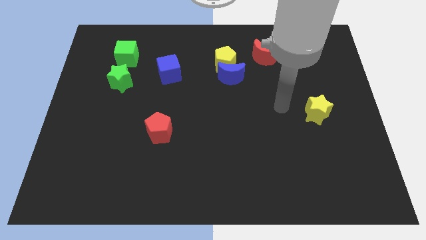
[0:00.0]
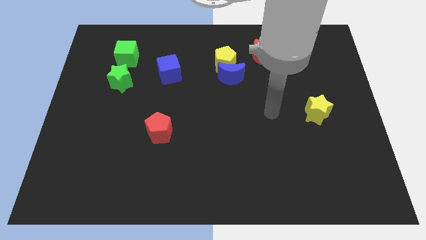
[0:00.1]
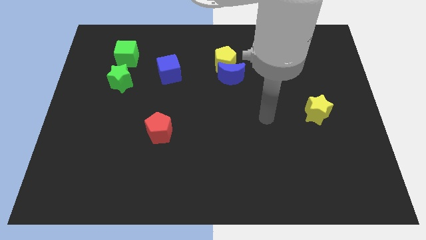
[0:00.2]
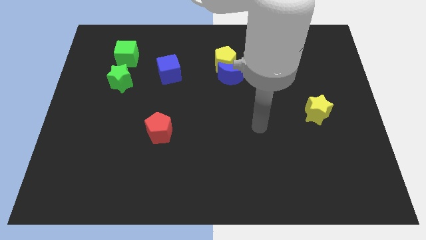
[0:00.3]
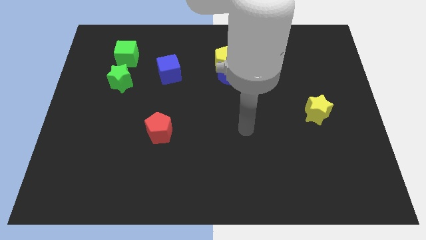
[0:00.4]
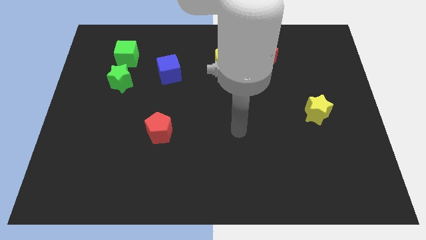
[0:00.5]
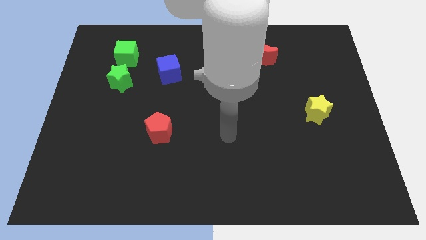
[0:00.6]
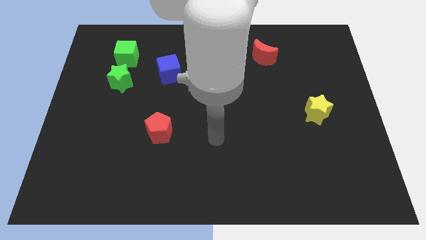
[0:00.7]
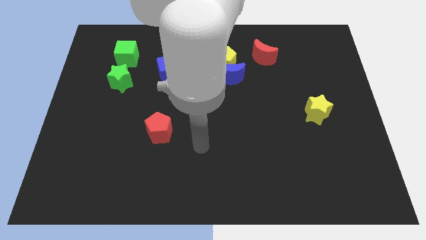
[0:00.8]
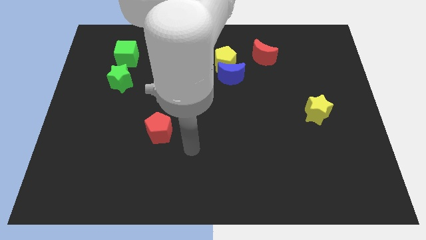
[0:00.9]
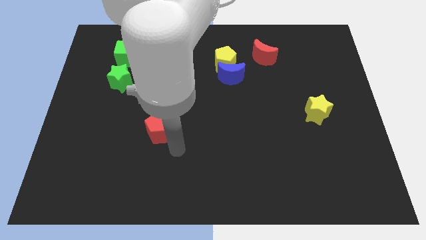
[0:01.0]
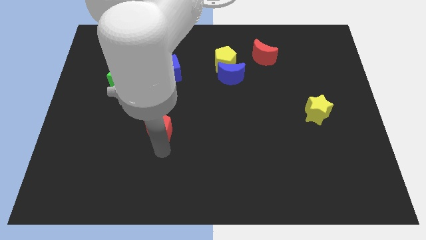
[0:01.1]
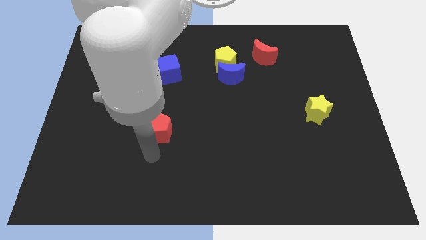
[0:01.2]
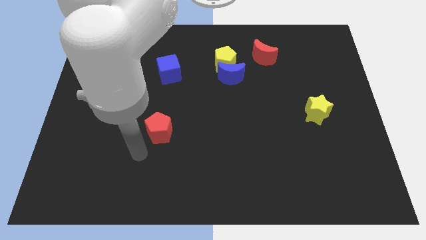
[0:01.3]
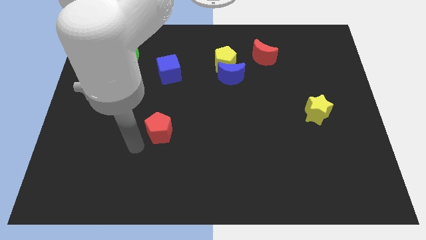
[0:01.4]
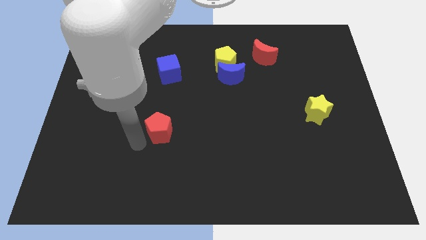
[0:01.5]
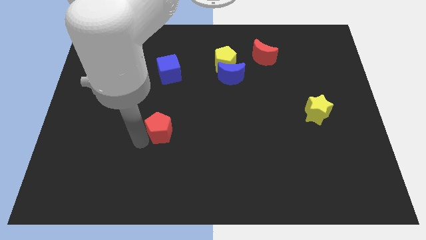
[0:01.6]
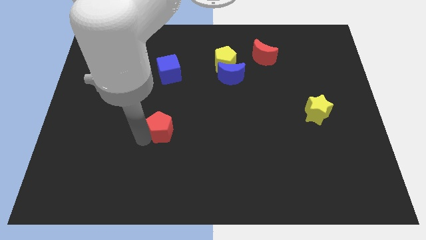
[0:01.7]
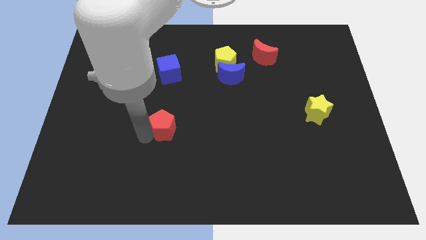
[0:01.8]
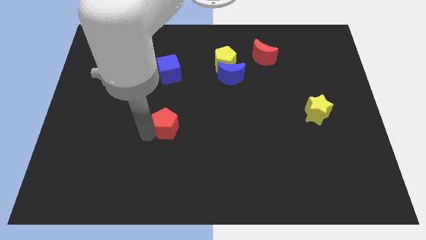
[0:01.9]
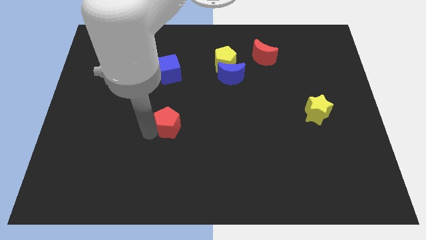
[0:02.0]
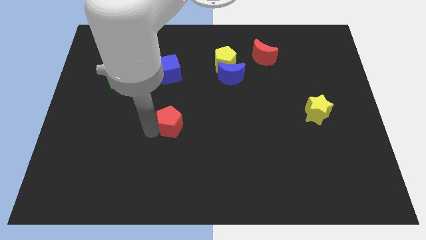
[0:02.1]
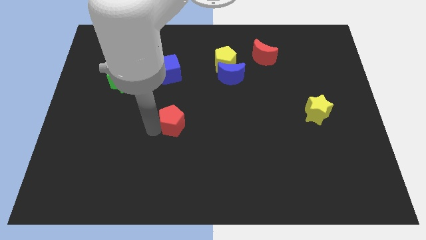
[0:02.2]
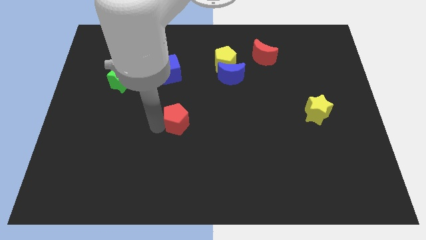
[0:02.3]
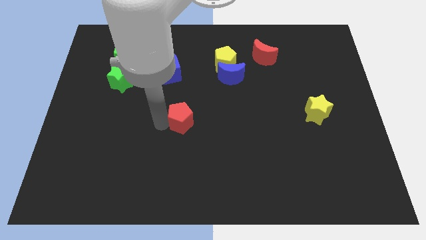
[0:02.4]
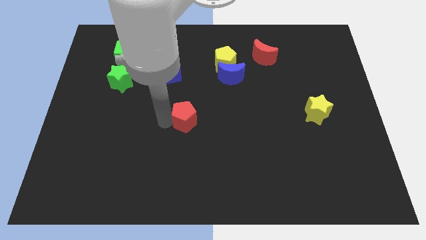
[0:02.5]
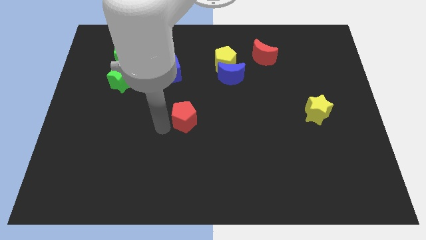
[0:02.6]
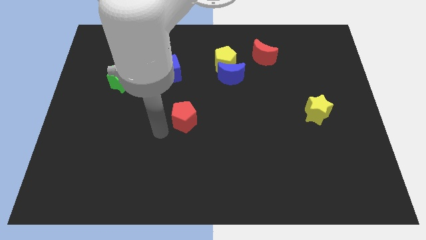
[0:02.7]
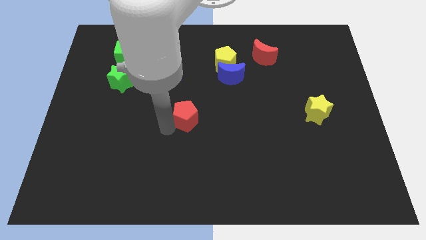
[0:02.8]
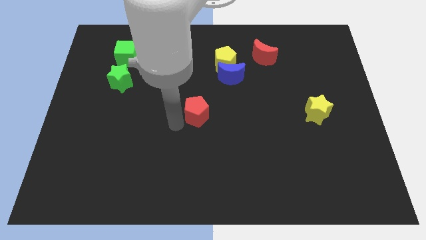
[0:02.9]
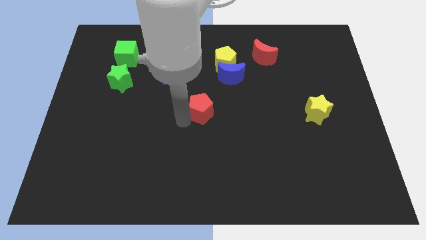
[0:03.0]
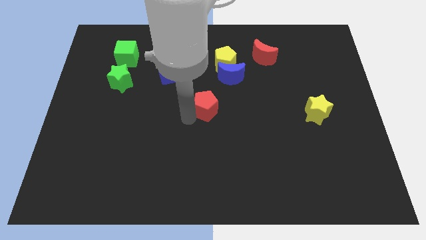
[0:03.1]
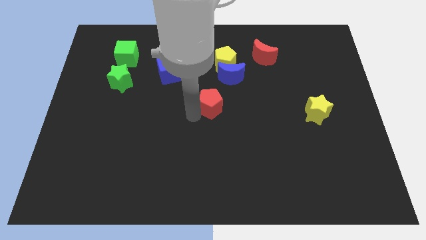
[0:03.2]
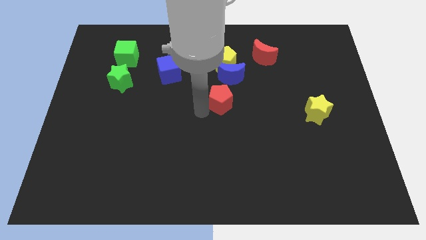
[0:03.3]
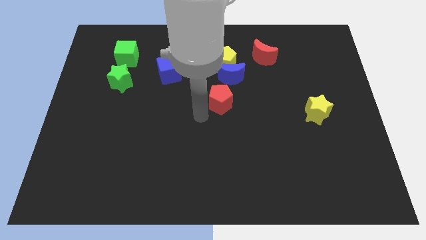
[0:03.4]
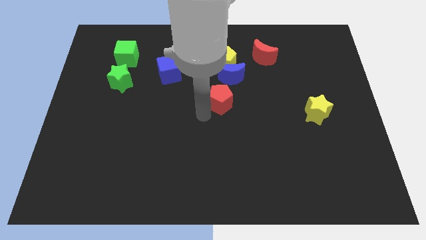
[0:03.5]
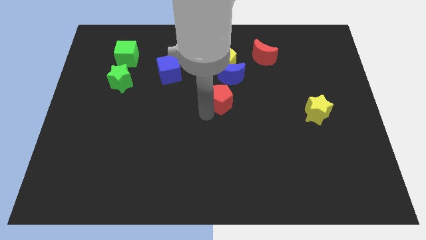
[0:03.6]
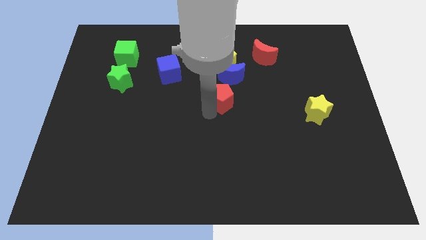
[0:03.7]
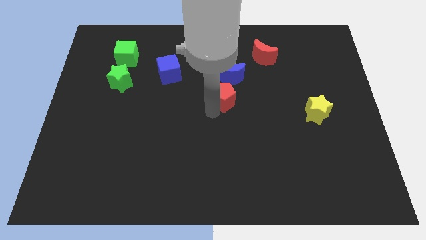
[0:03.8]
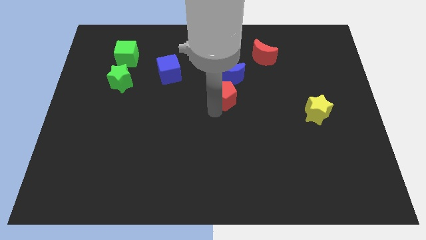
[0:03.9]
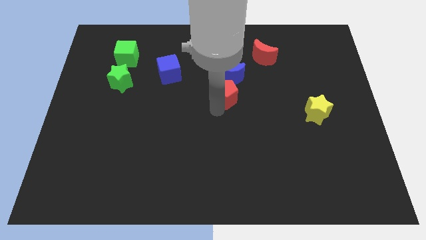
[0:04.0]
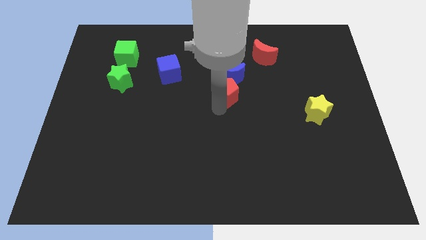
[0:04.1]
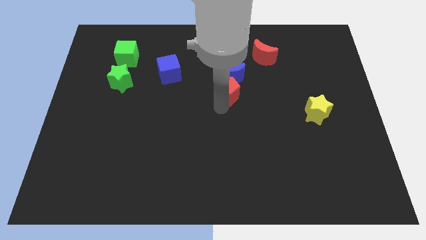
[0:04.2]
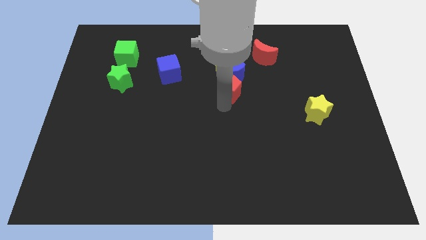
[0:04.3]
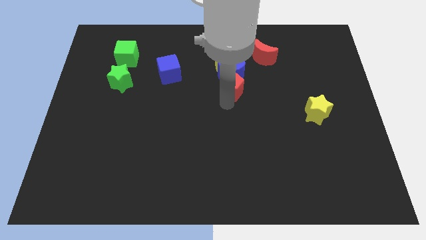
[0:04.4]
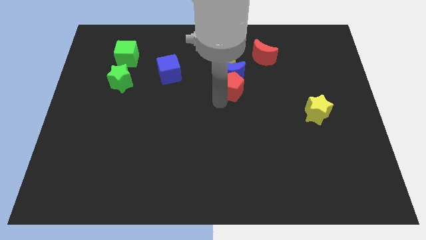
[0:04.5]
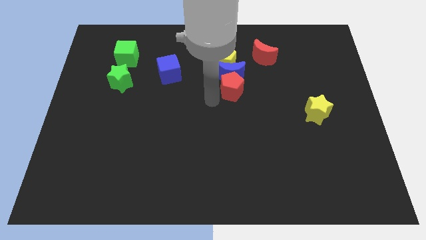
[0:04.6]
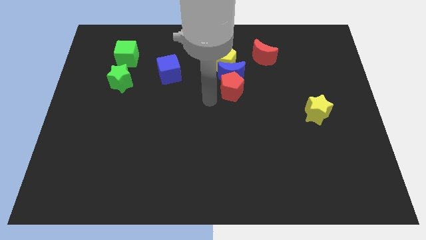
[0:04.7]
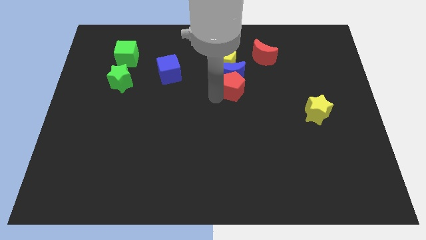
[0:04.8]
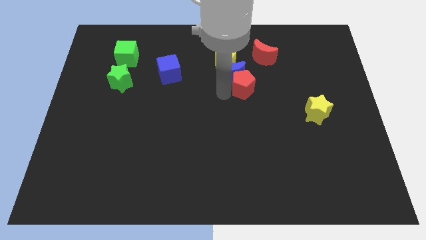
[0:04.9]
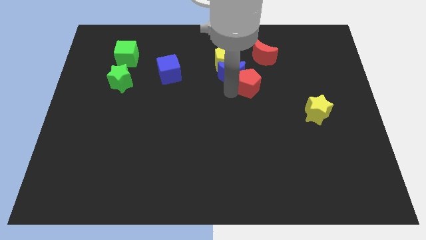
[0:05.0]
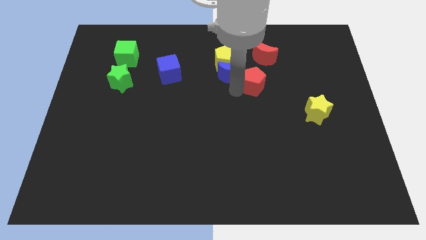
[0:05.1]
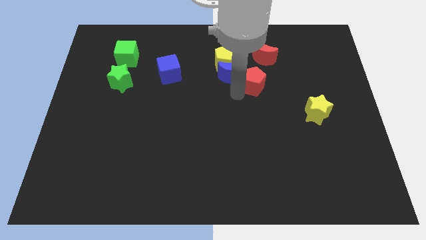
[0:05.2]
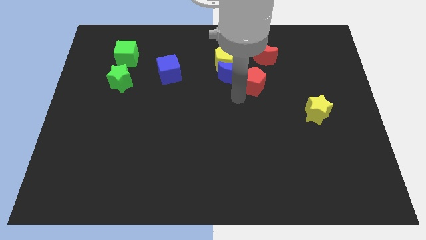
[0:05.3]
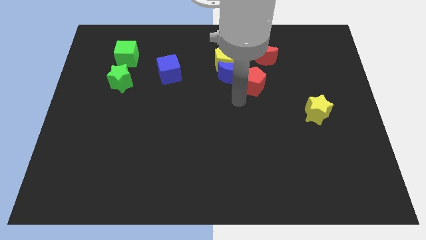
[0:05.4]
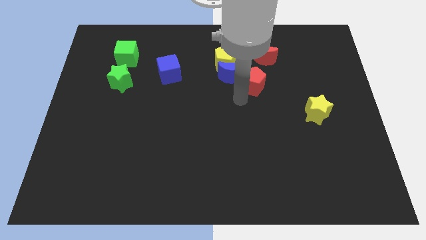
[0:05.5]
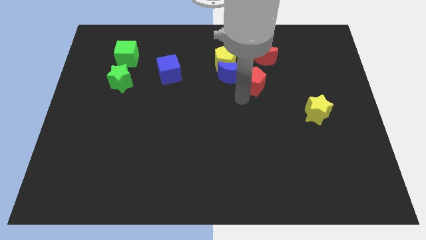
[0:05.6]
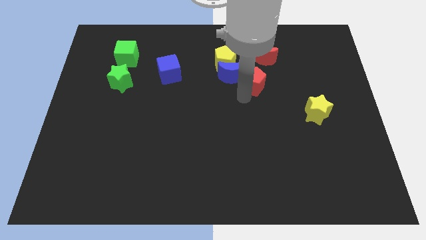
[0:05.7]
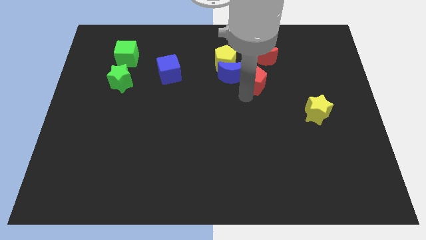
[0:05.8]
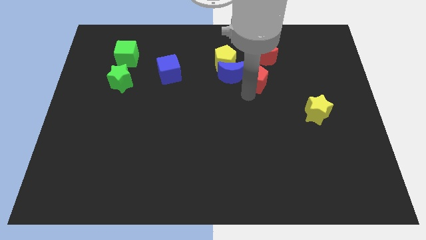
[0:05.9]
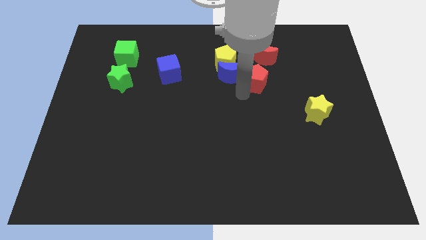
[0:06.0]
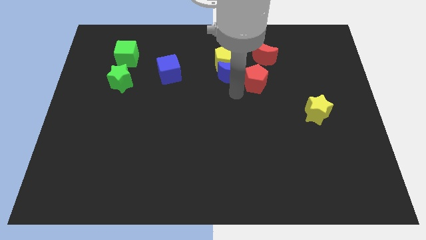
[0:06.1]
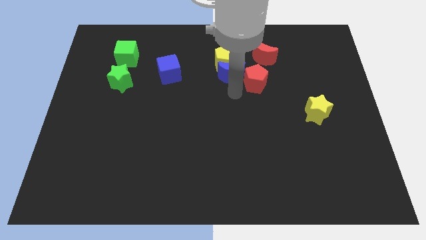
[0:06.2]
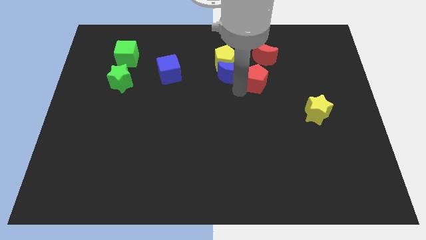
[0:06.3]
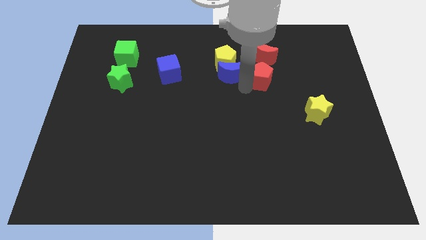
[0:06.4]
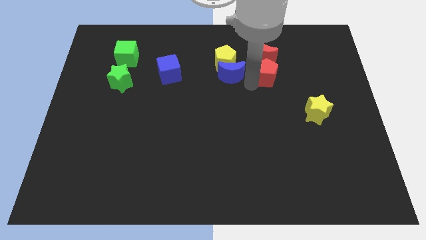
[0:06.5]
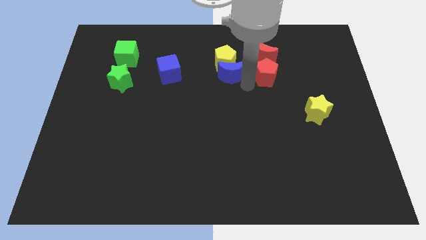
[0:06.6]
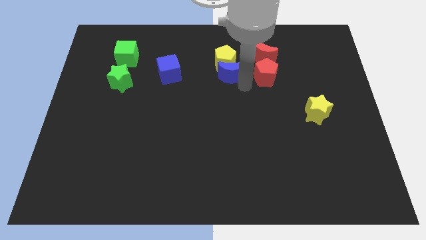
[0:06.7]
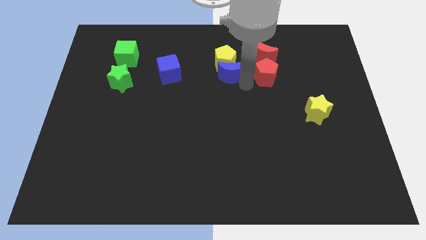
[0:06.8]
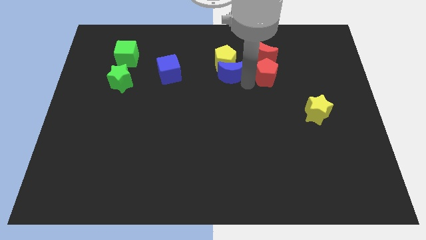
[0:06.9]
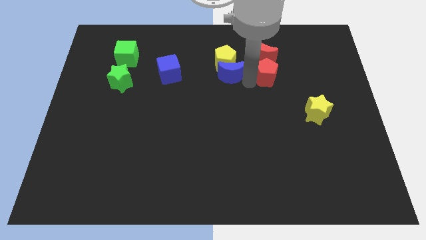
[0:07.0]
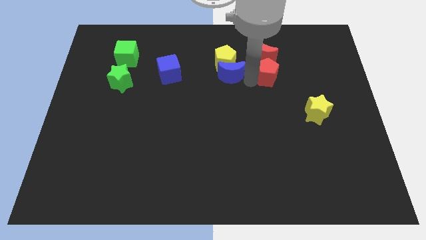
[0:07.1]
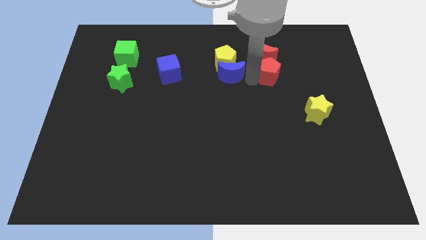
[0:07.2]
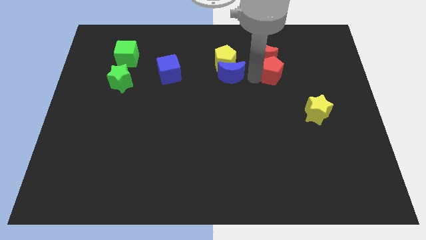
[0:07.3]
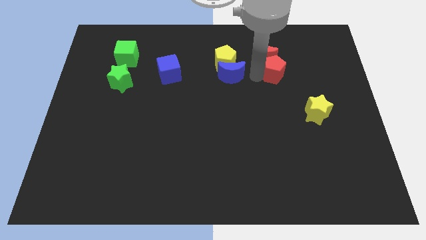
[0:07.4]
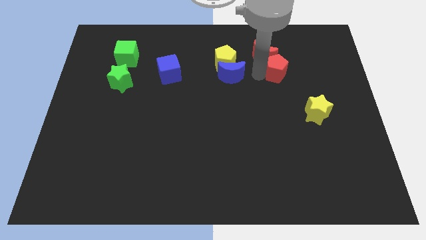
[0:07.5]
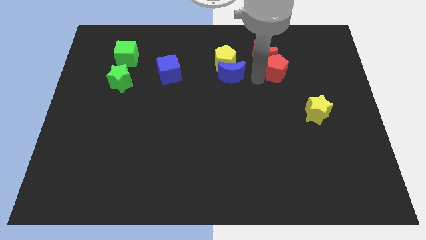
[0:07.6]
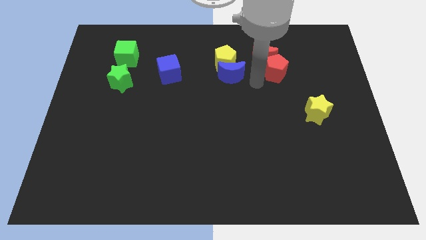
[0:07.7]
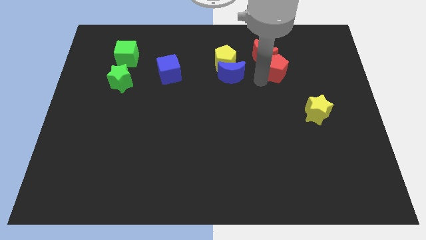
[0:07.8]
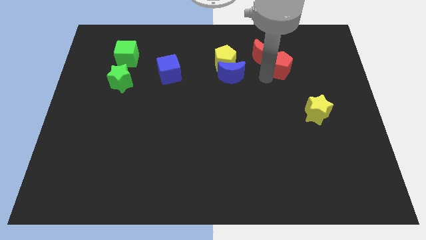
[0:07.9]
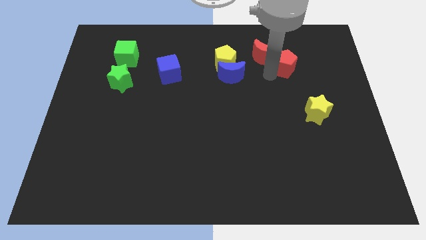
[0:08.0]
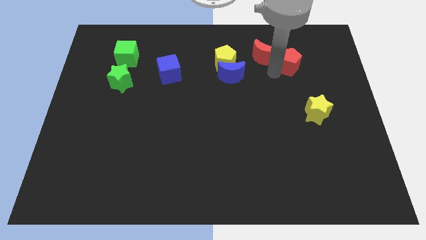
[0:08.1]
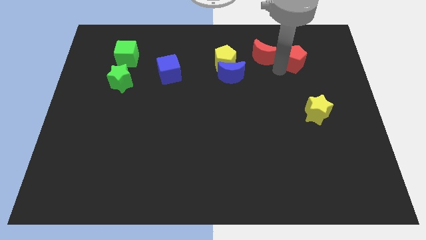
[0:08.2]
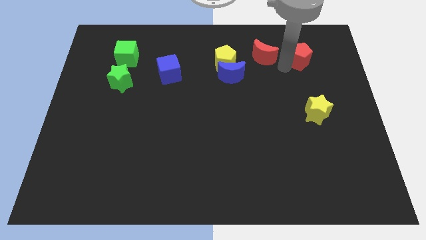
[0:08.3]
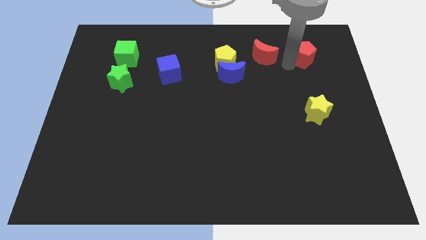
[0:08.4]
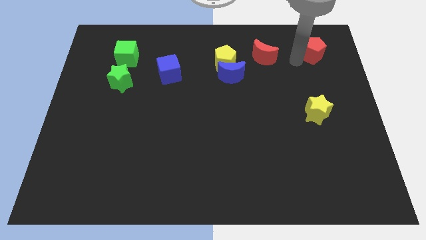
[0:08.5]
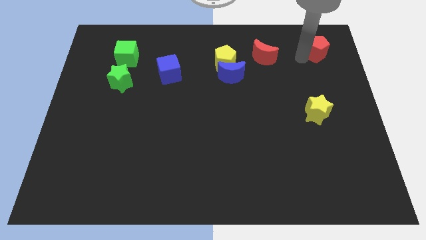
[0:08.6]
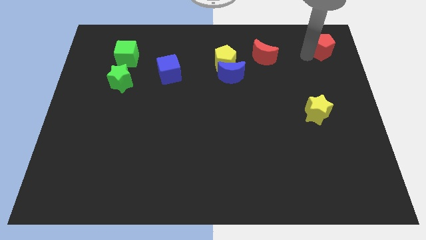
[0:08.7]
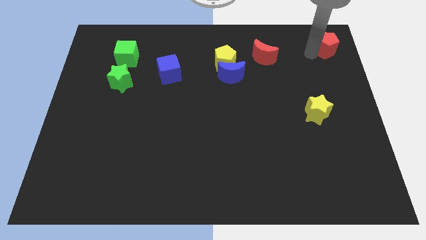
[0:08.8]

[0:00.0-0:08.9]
put the red pentagon to the top right corner
